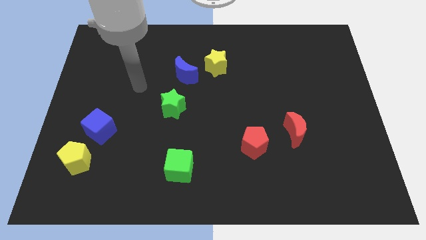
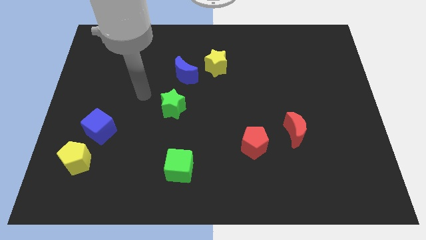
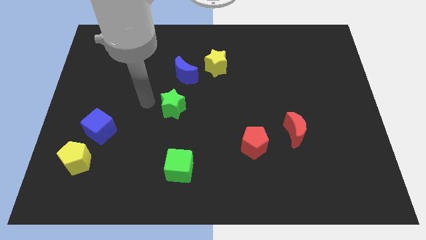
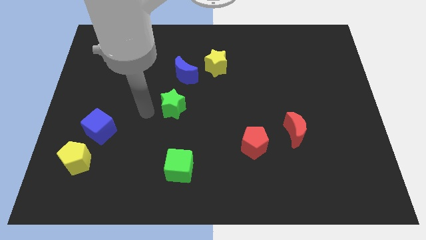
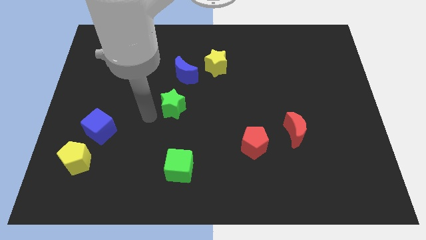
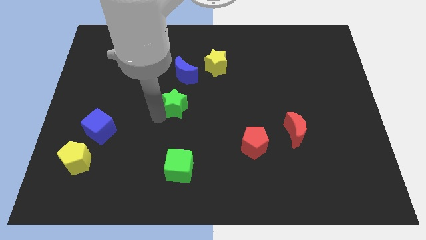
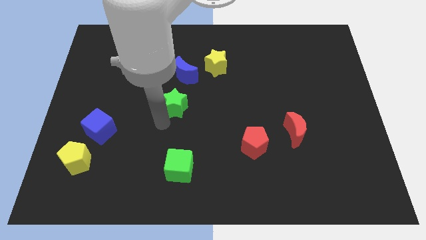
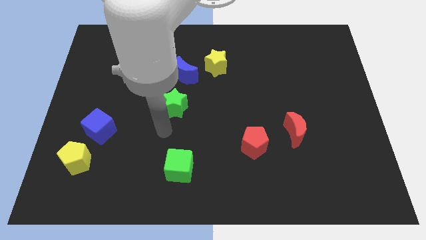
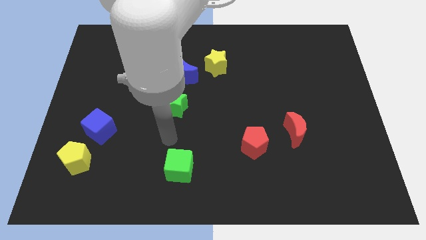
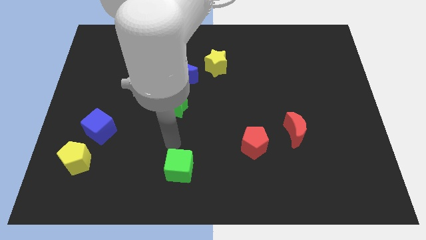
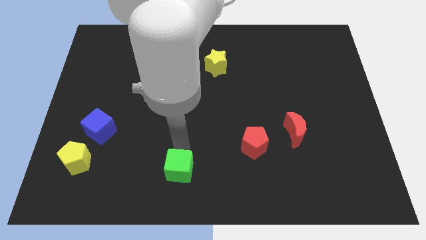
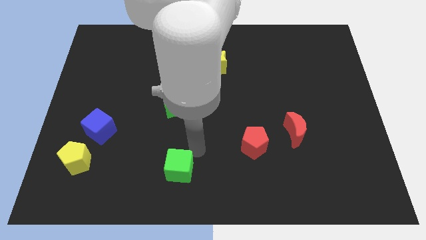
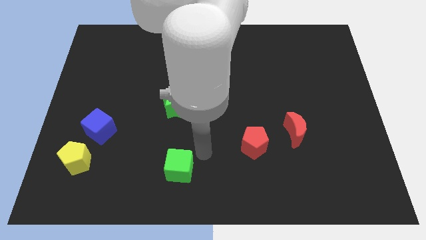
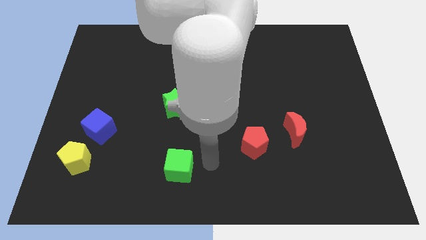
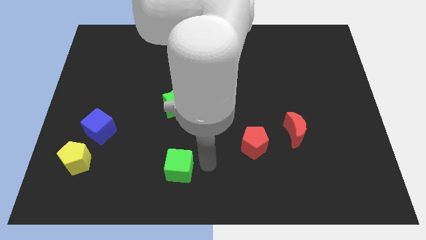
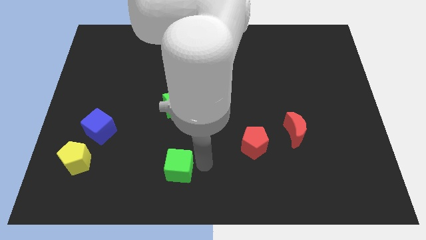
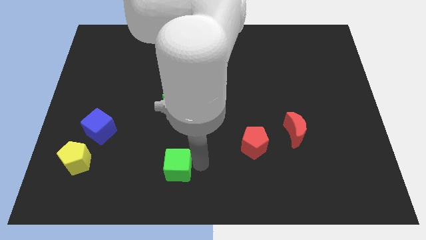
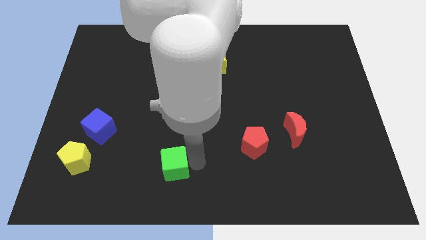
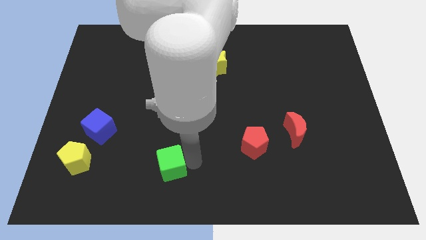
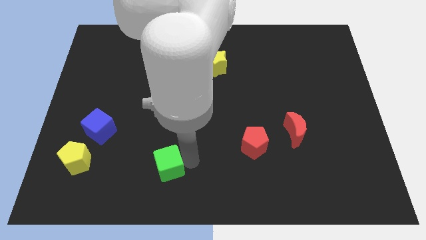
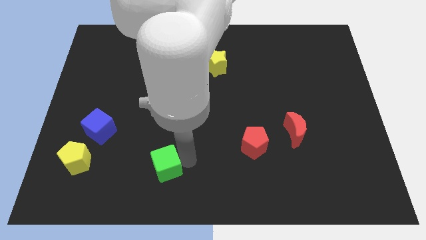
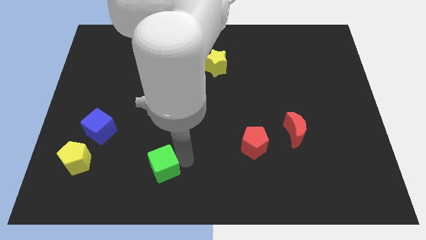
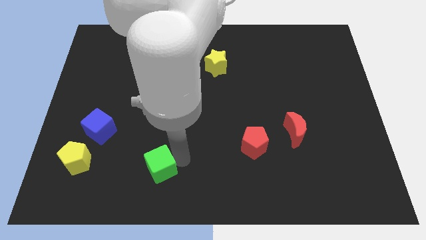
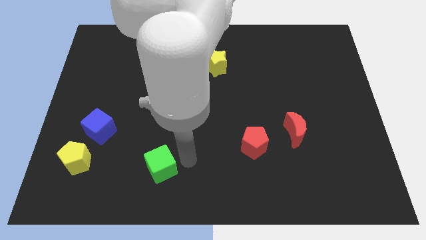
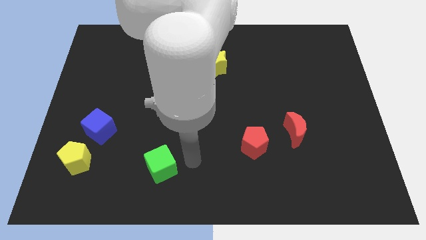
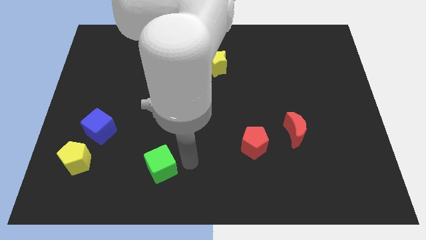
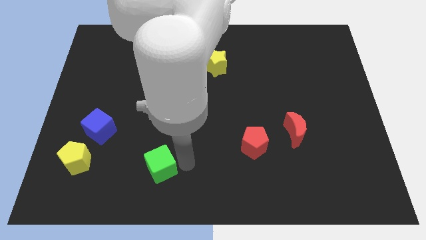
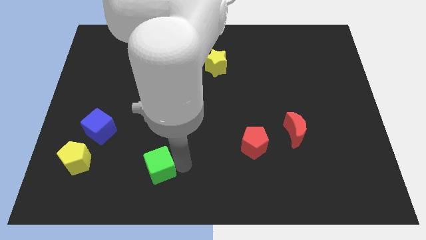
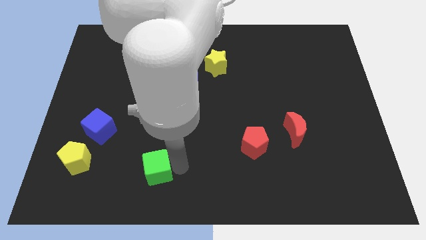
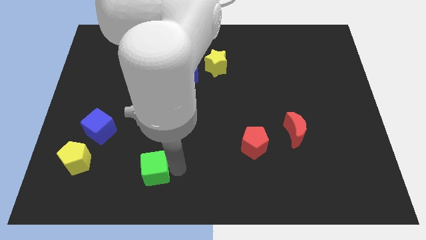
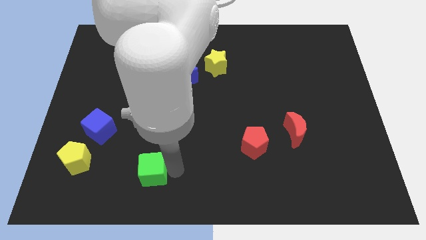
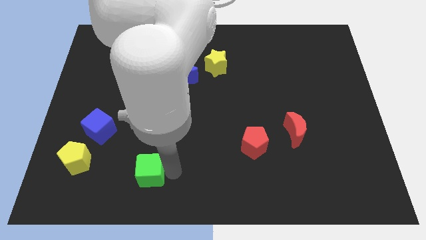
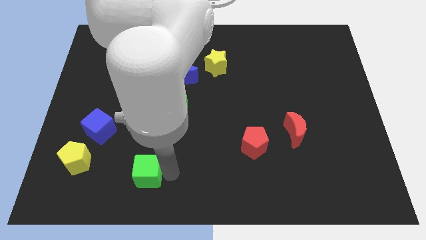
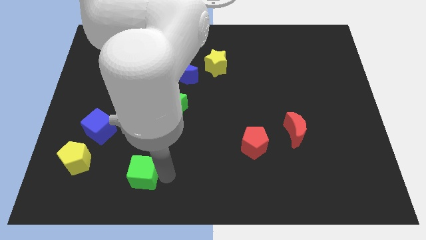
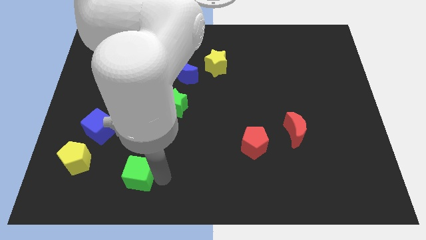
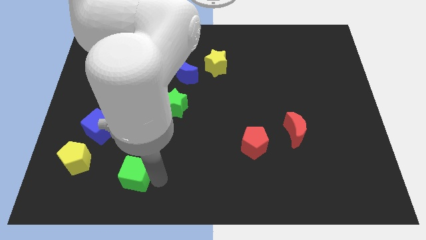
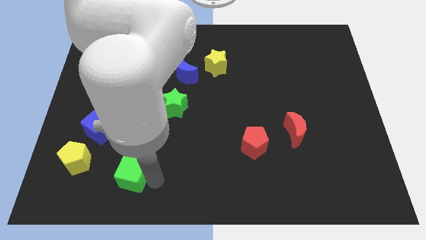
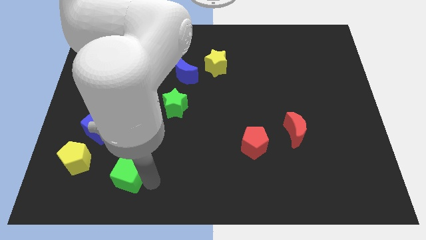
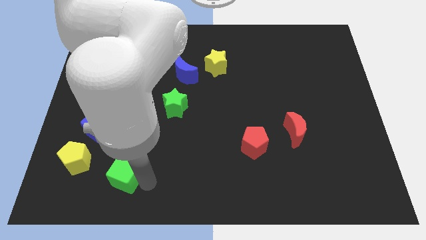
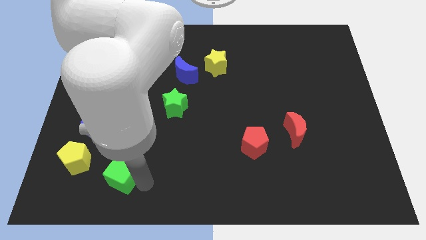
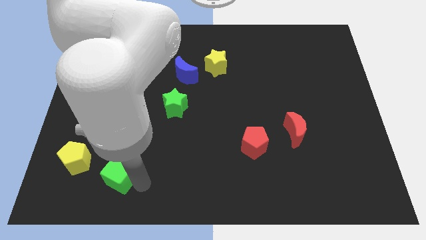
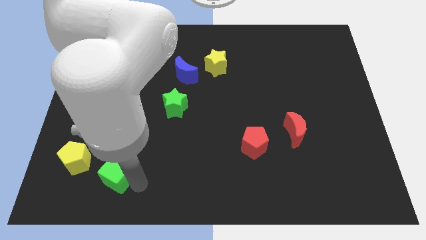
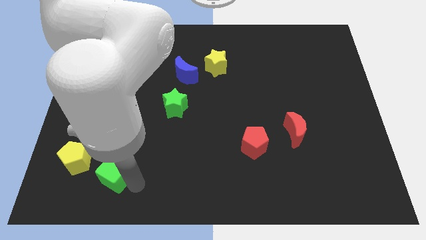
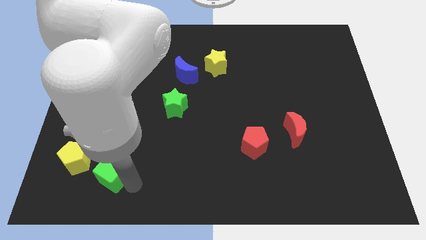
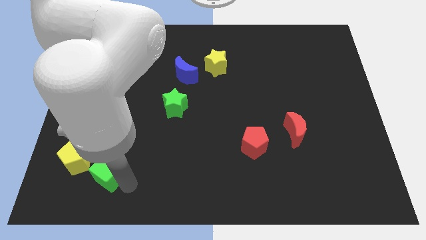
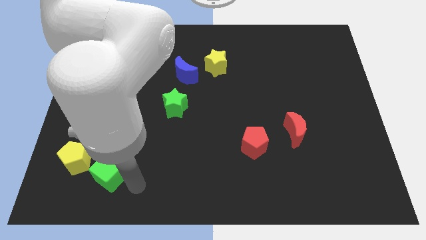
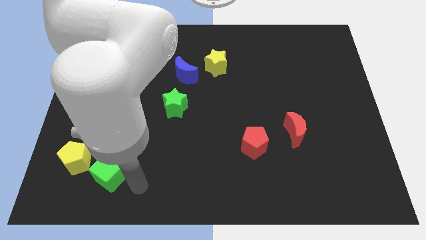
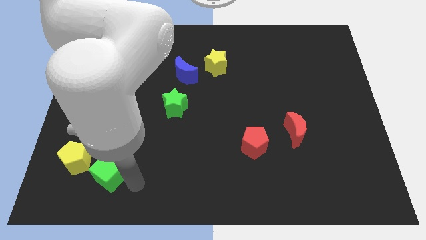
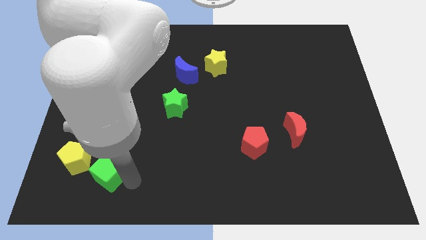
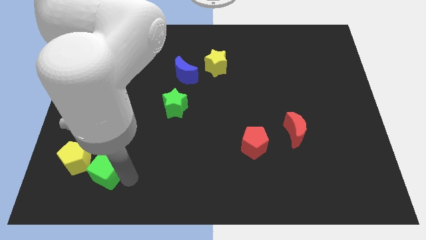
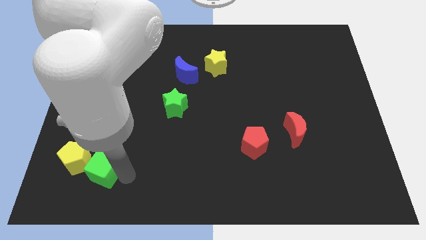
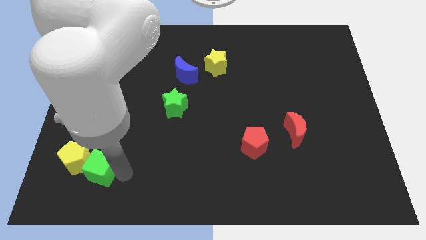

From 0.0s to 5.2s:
push the green cube close to the yellow pentagon

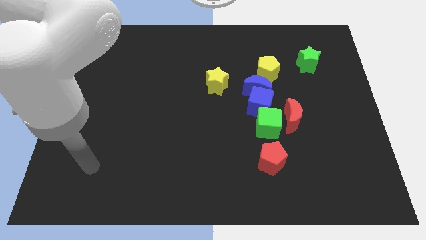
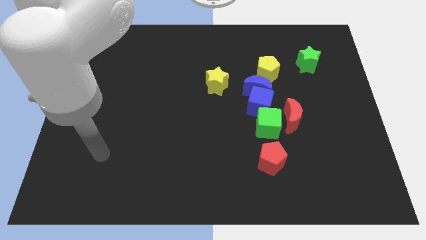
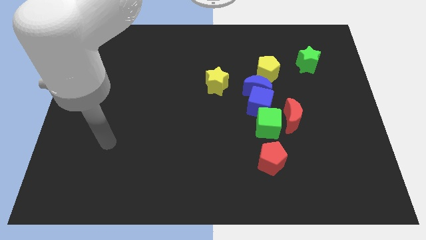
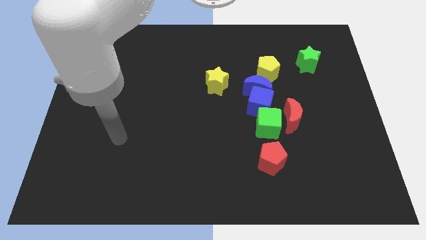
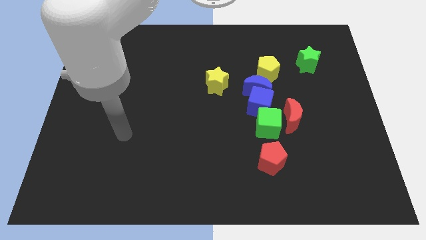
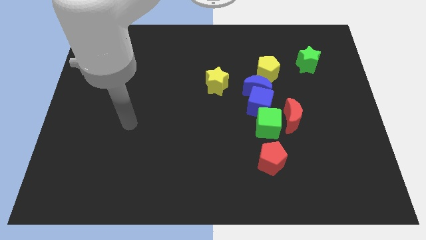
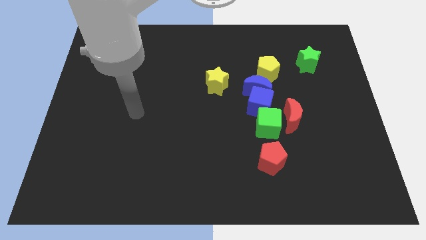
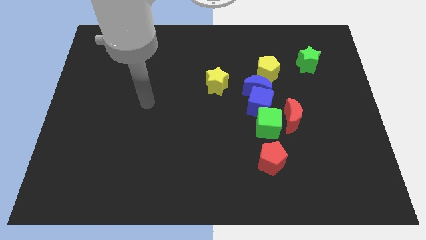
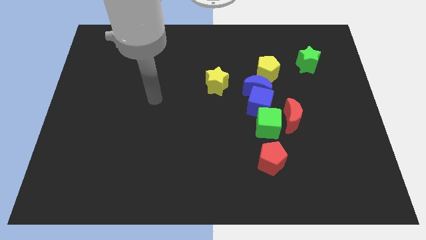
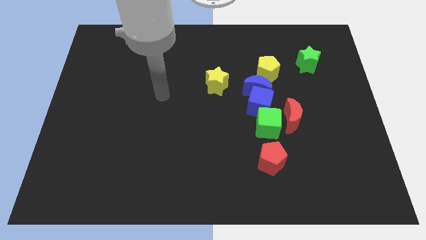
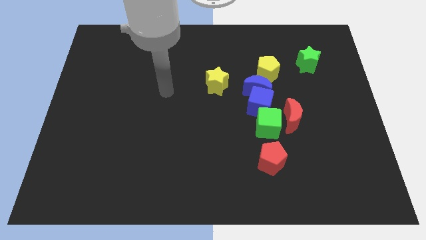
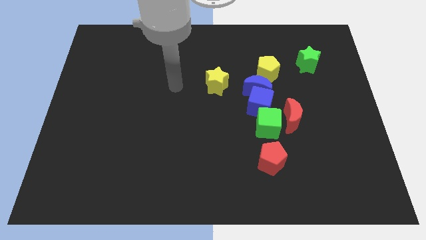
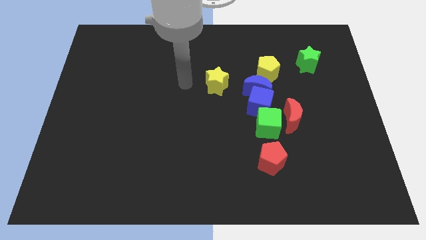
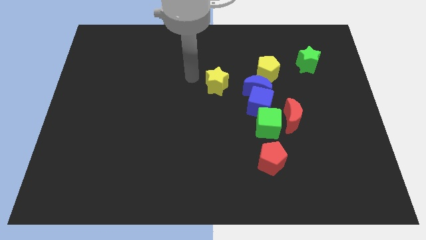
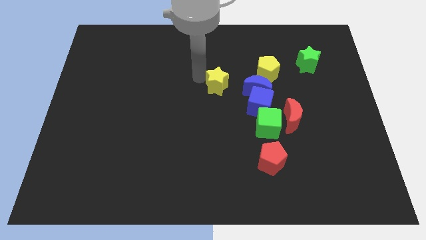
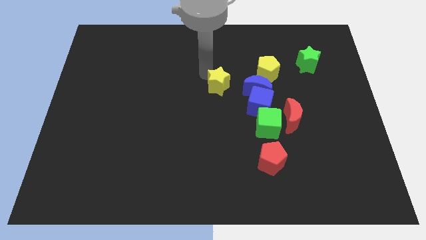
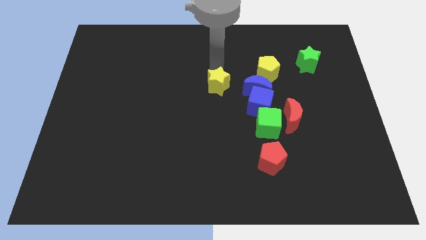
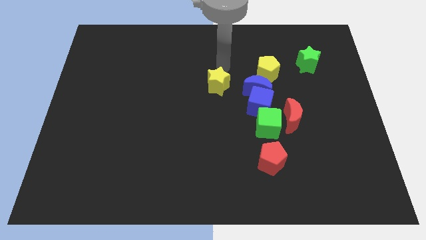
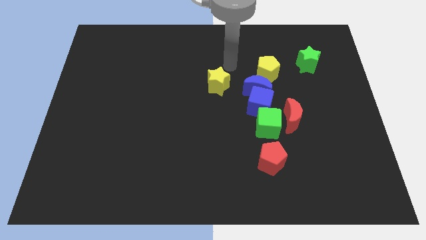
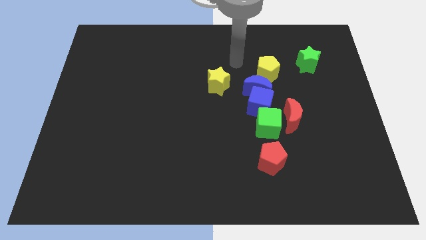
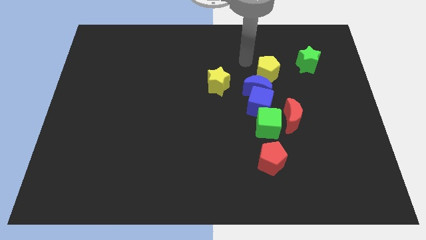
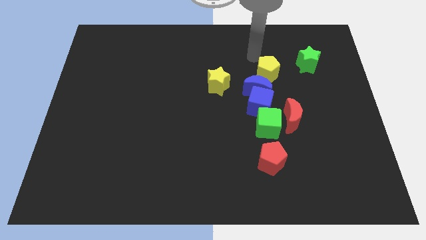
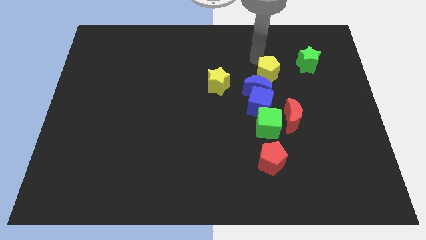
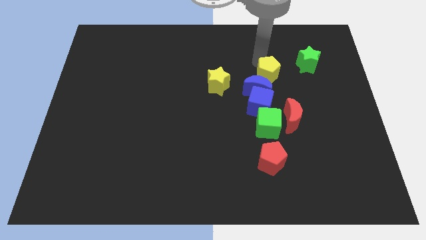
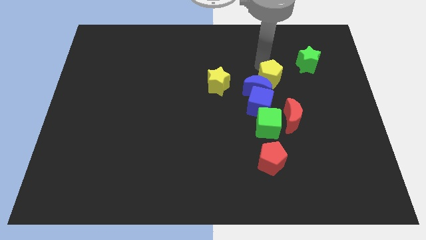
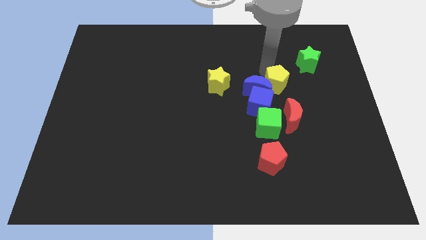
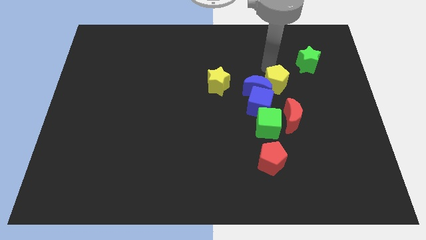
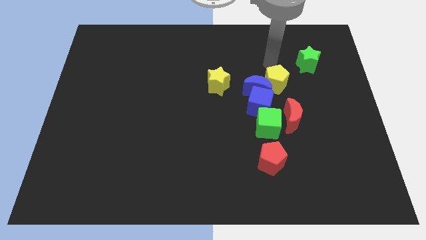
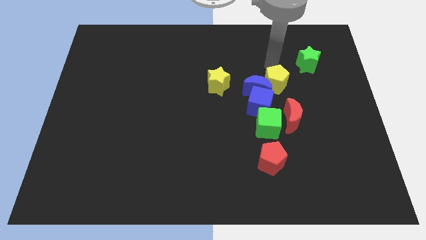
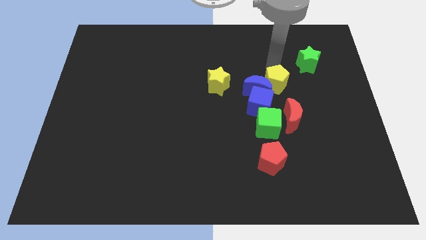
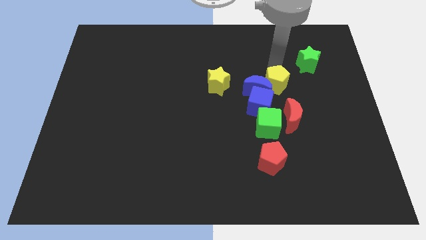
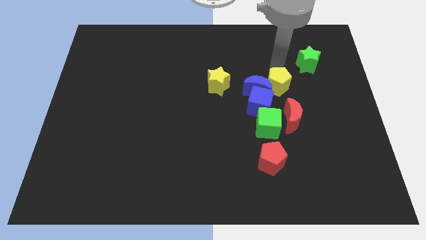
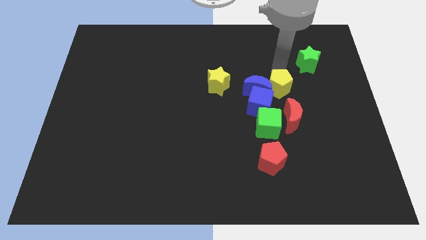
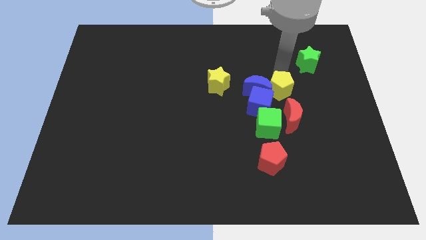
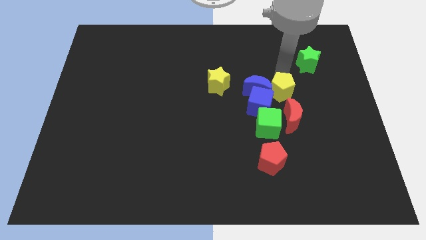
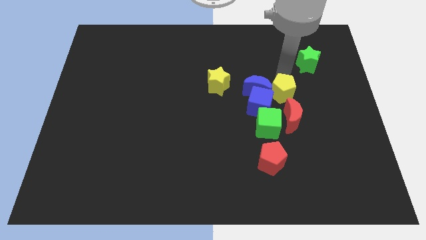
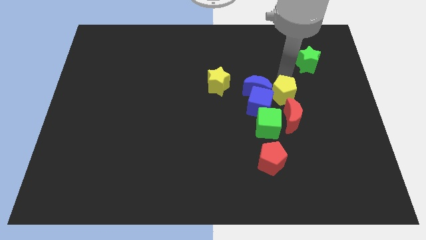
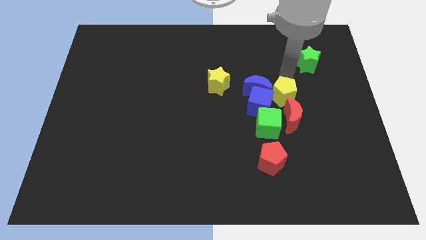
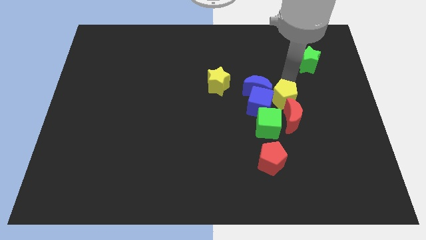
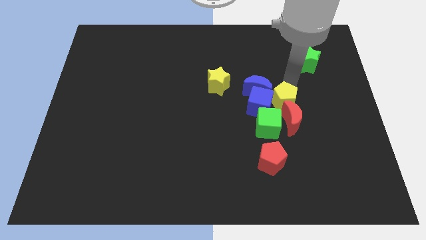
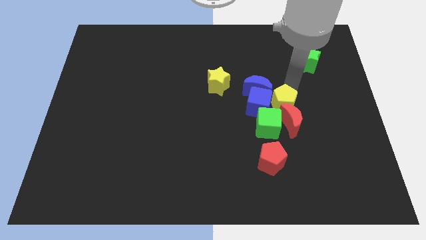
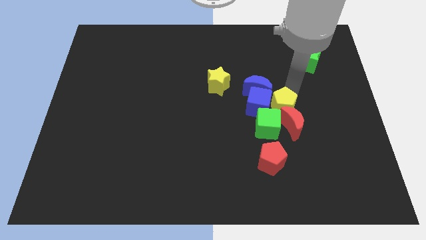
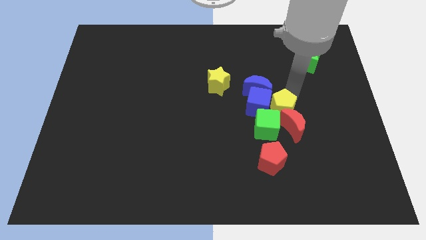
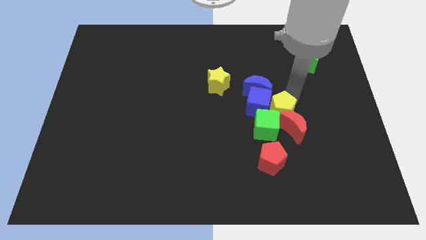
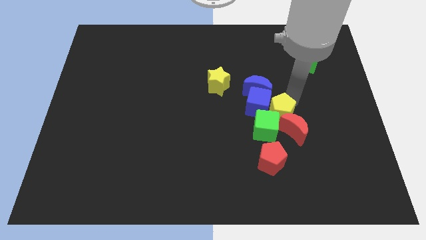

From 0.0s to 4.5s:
push the yellow pentagon towards the green cube
